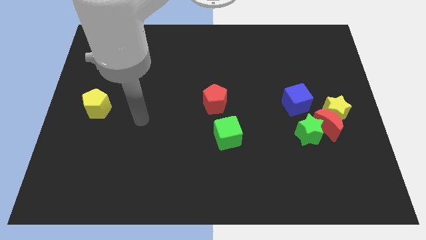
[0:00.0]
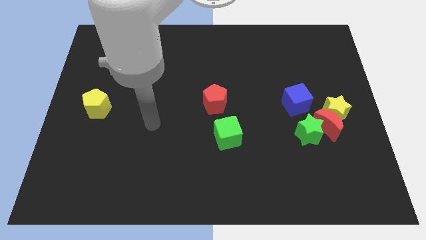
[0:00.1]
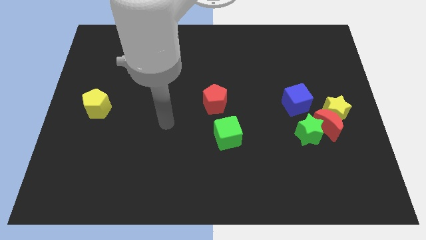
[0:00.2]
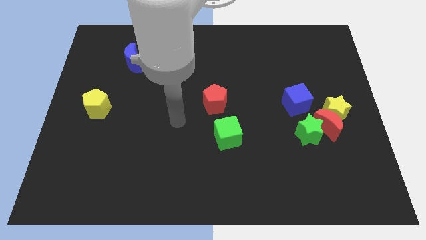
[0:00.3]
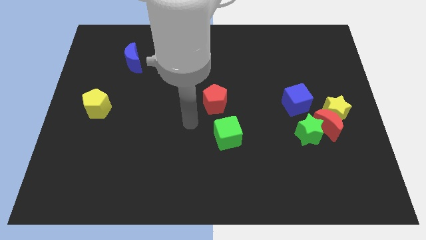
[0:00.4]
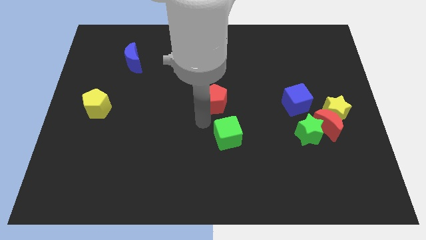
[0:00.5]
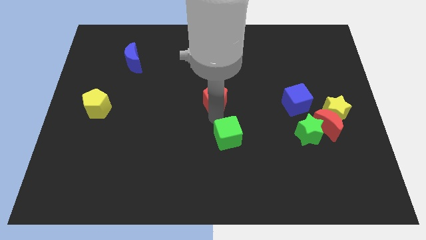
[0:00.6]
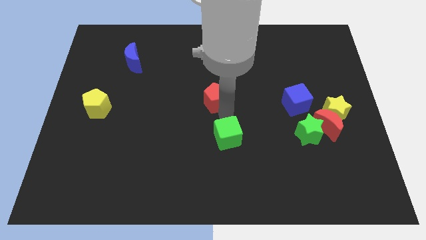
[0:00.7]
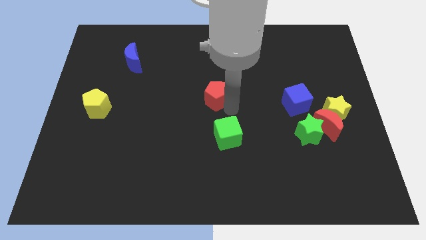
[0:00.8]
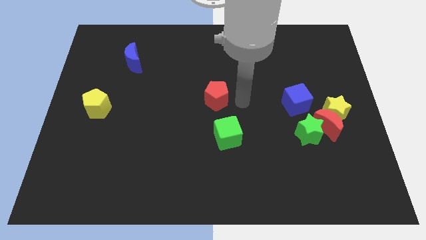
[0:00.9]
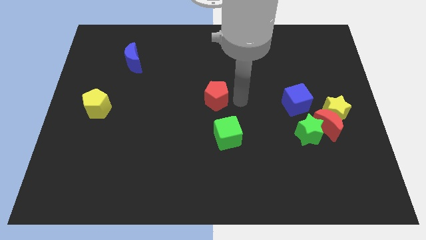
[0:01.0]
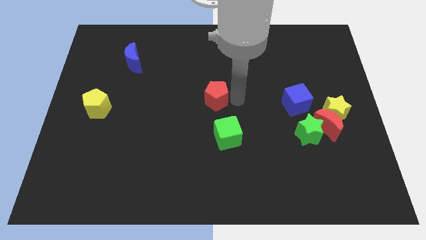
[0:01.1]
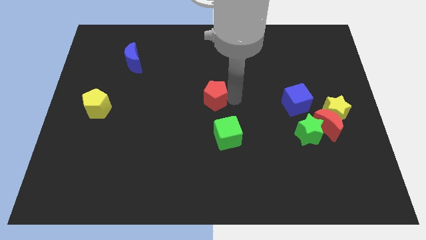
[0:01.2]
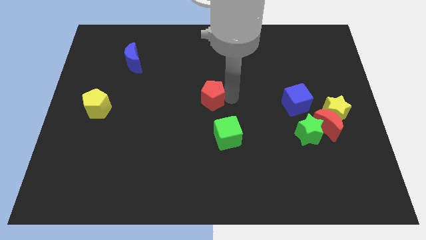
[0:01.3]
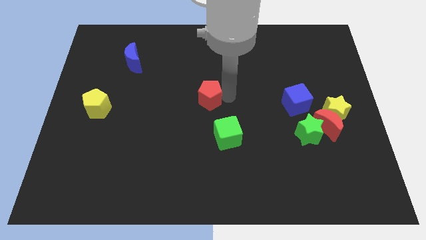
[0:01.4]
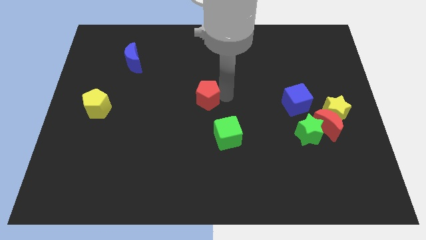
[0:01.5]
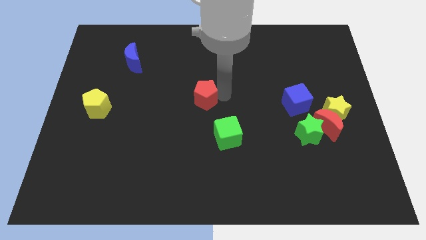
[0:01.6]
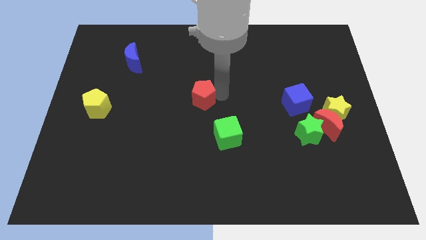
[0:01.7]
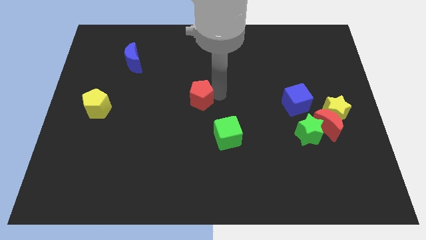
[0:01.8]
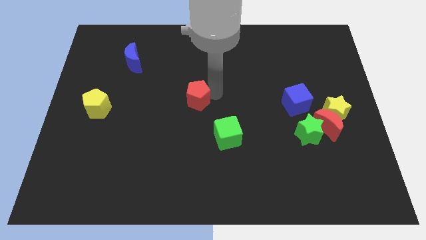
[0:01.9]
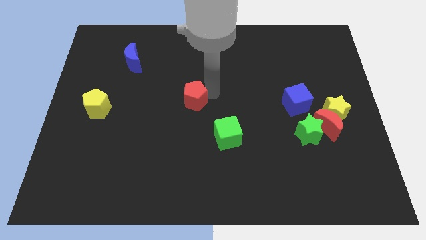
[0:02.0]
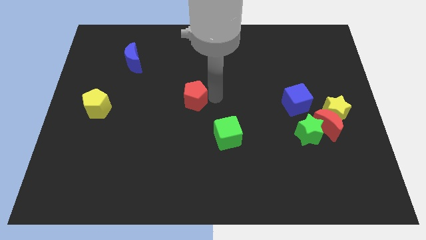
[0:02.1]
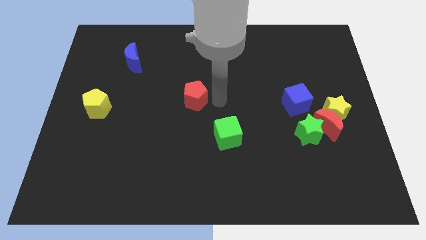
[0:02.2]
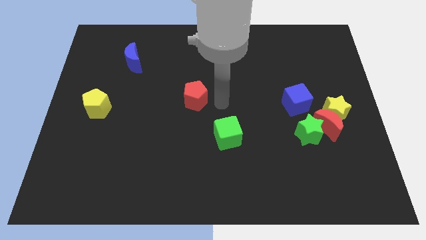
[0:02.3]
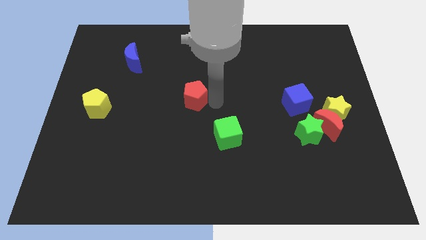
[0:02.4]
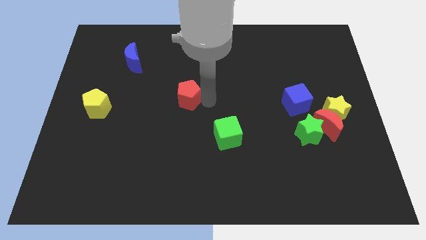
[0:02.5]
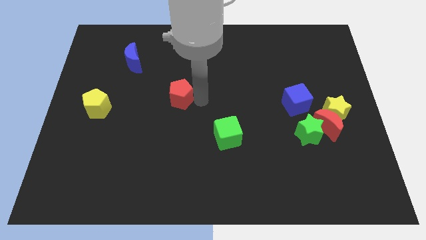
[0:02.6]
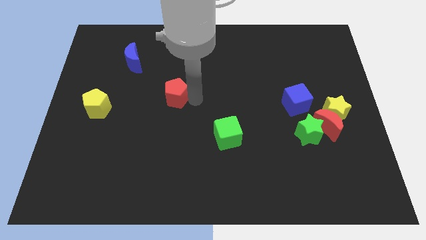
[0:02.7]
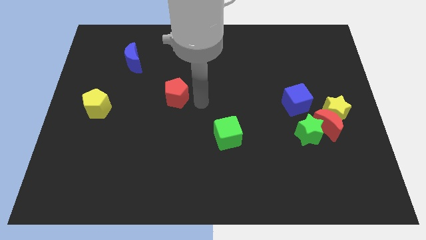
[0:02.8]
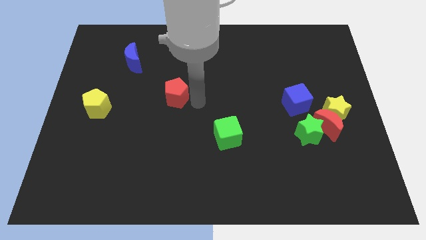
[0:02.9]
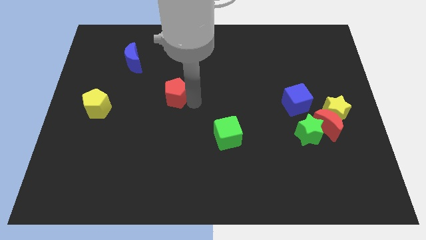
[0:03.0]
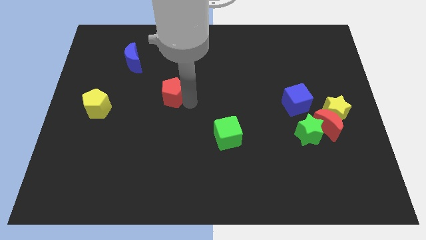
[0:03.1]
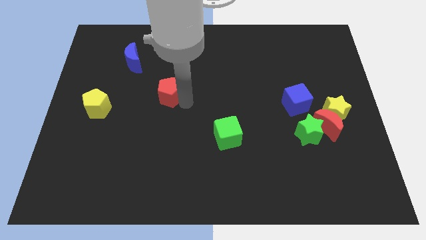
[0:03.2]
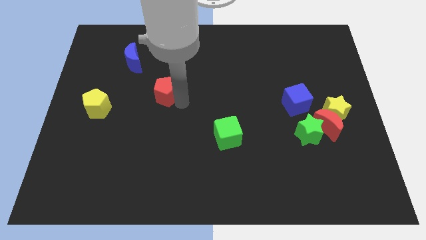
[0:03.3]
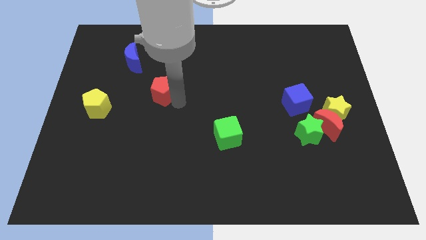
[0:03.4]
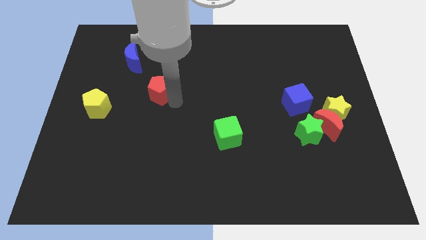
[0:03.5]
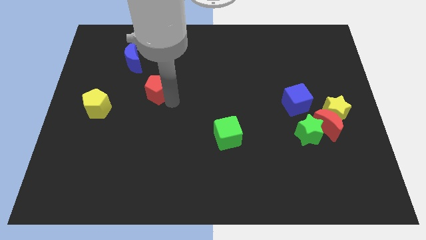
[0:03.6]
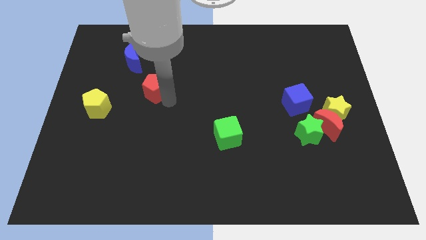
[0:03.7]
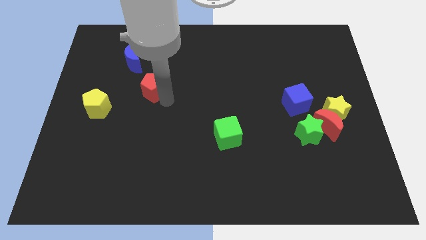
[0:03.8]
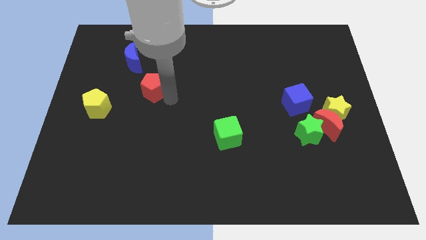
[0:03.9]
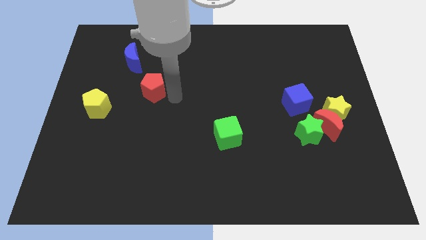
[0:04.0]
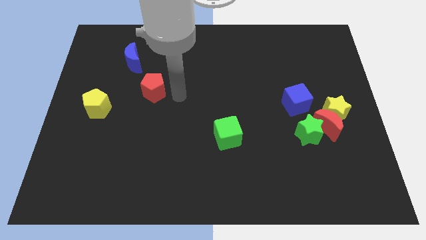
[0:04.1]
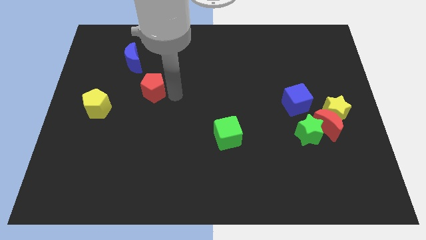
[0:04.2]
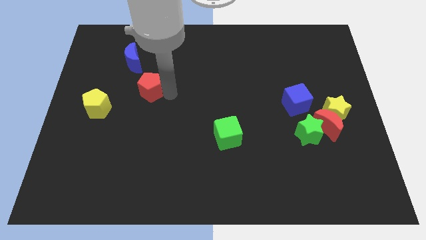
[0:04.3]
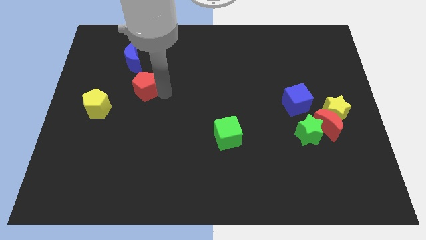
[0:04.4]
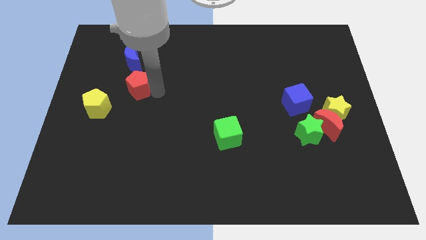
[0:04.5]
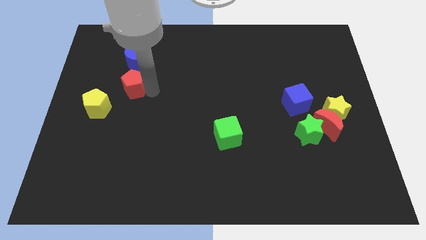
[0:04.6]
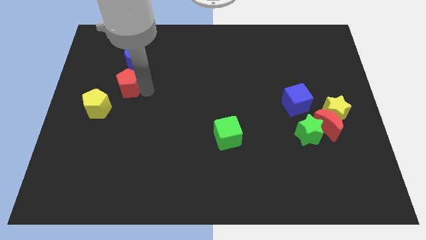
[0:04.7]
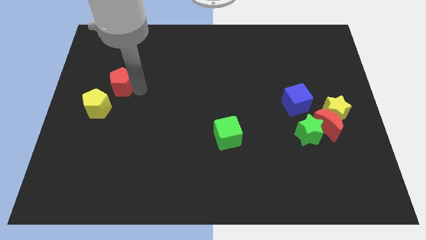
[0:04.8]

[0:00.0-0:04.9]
push the red pentagon to the top of the yellow pentagon

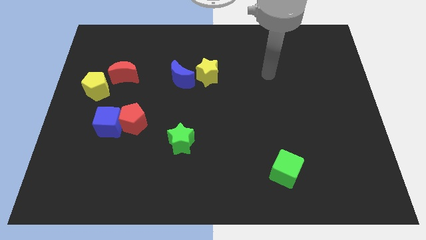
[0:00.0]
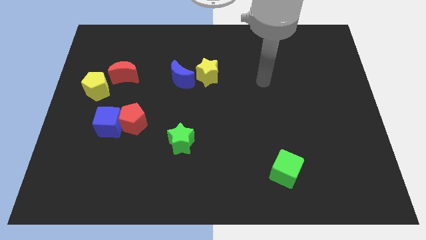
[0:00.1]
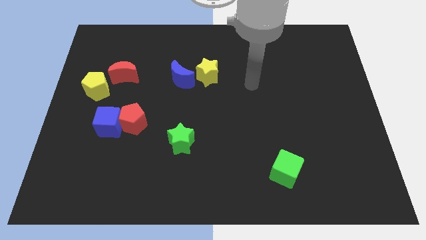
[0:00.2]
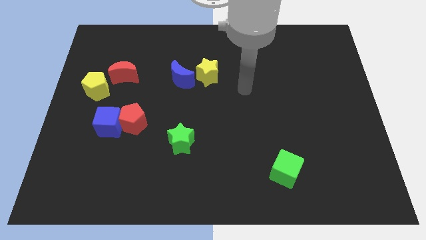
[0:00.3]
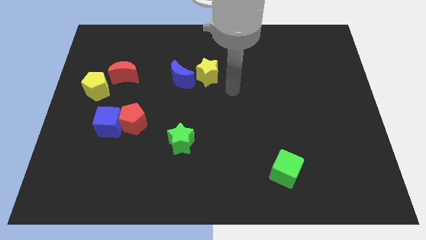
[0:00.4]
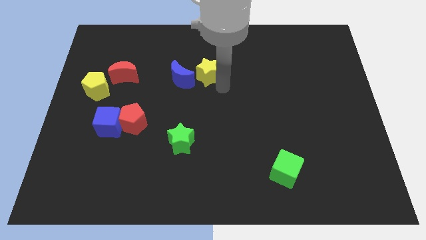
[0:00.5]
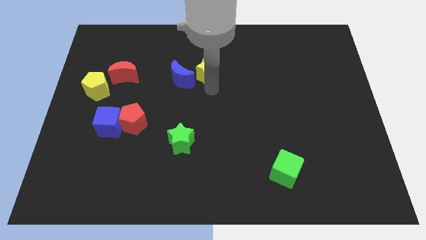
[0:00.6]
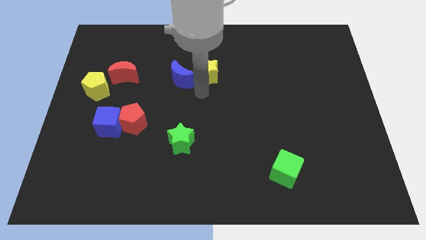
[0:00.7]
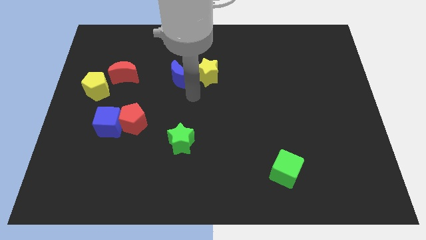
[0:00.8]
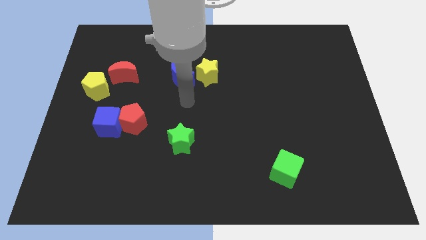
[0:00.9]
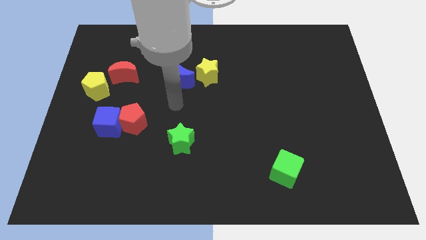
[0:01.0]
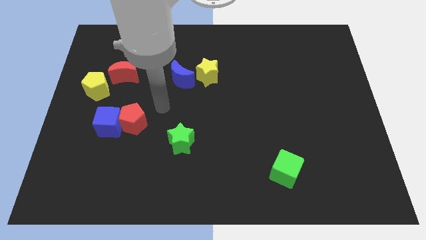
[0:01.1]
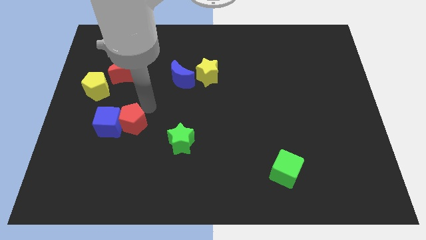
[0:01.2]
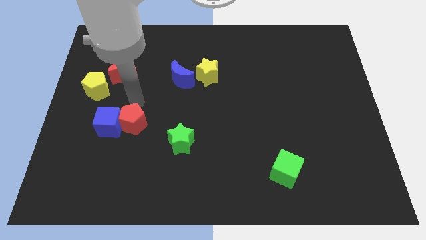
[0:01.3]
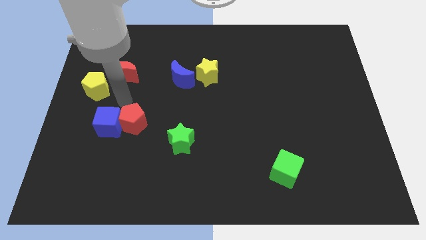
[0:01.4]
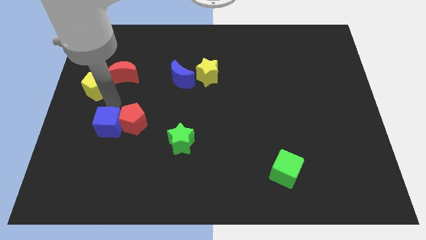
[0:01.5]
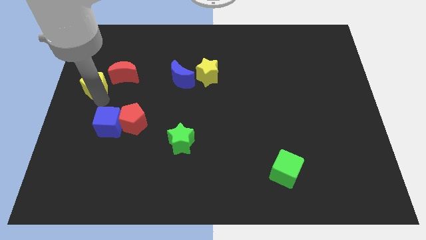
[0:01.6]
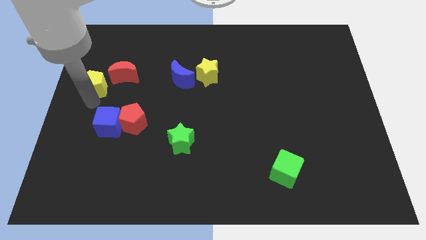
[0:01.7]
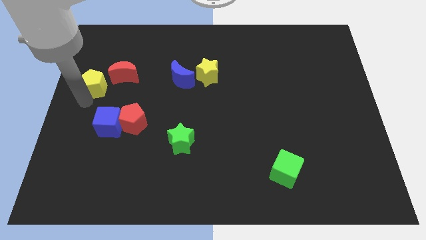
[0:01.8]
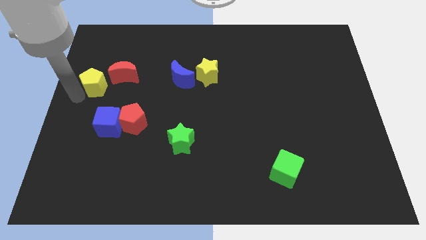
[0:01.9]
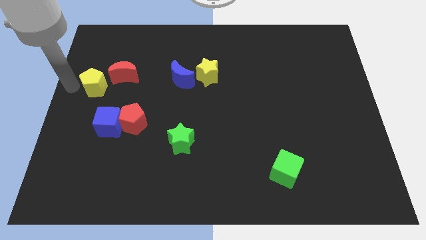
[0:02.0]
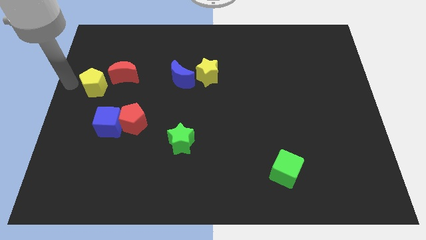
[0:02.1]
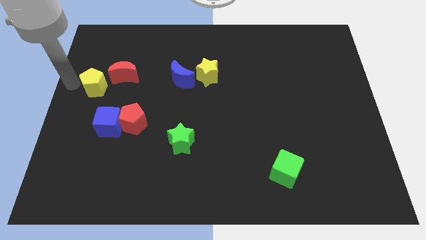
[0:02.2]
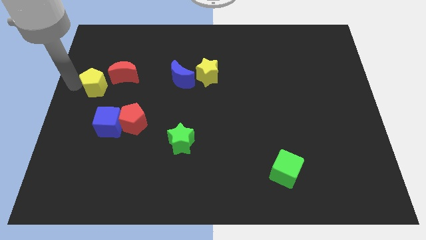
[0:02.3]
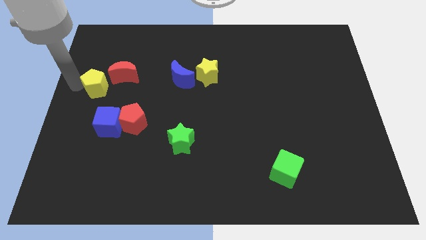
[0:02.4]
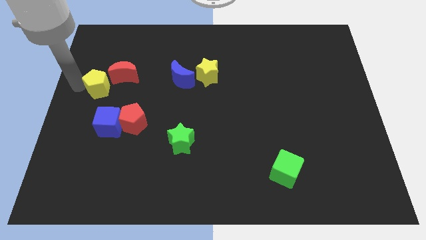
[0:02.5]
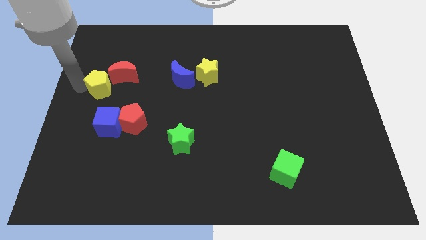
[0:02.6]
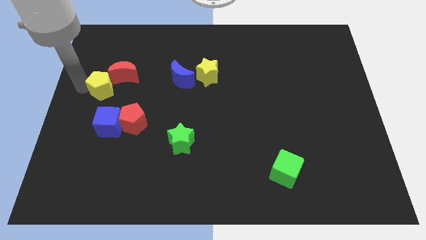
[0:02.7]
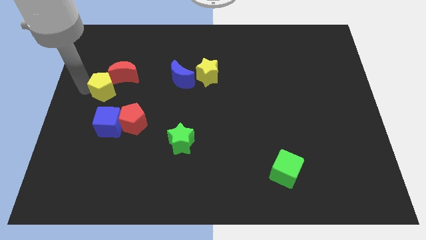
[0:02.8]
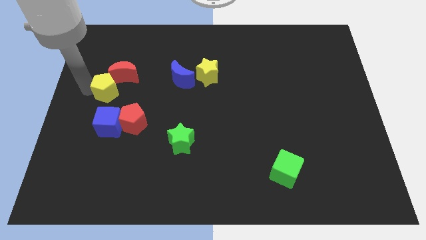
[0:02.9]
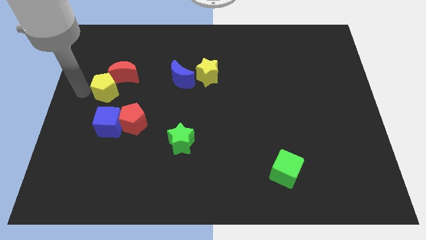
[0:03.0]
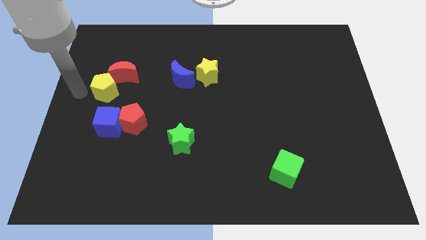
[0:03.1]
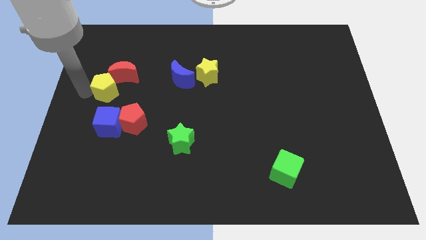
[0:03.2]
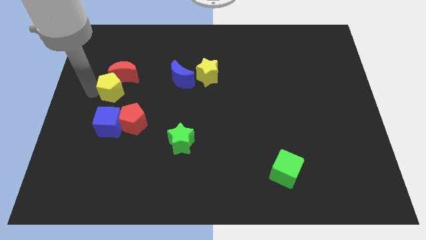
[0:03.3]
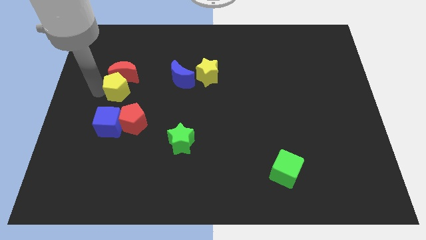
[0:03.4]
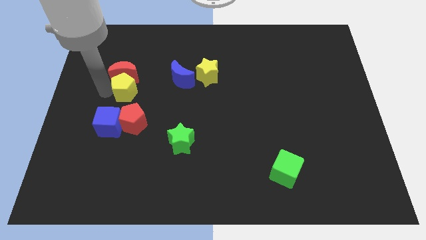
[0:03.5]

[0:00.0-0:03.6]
move the yellow pentagon left of the blue moon
